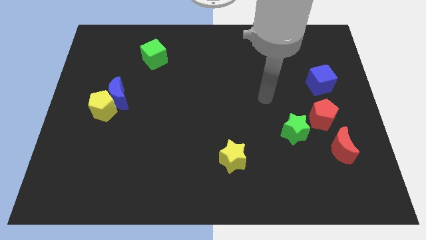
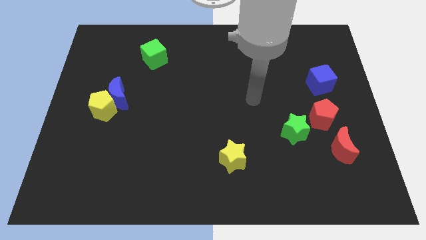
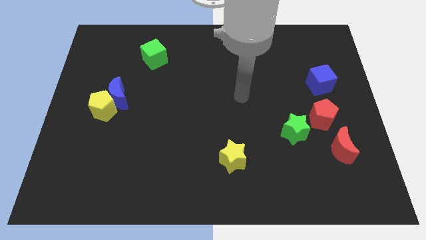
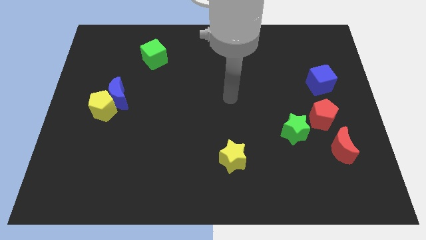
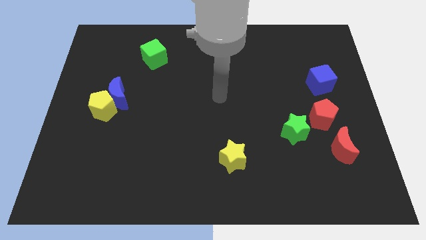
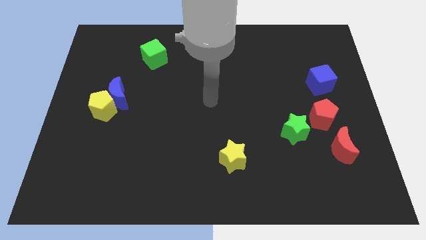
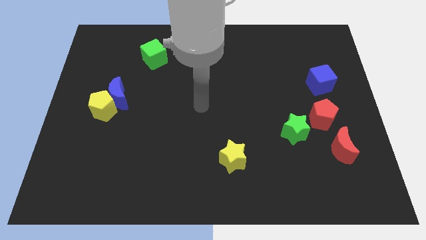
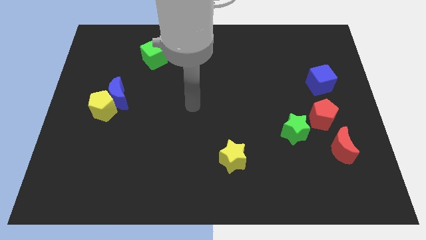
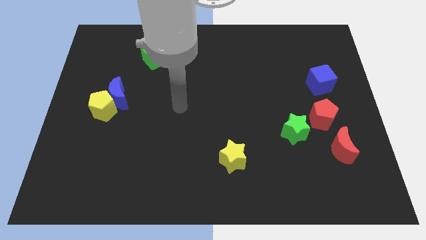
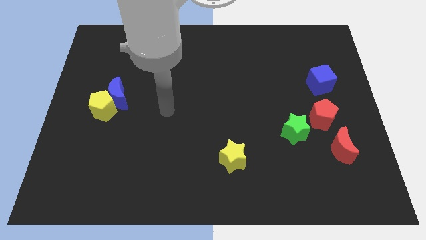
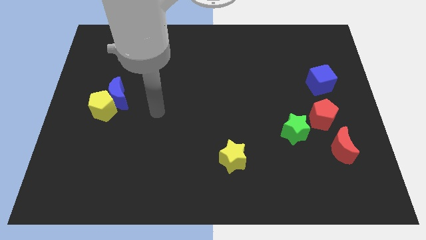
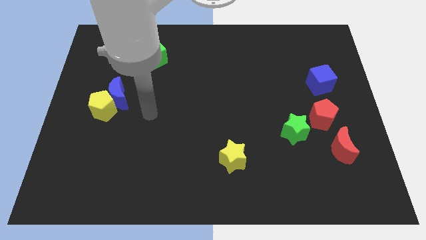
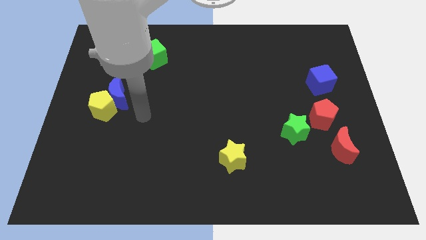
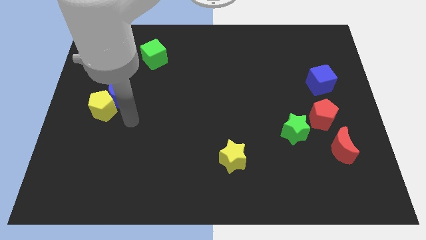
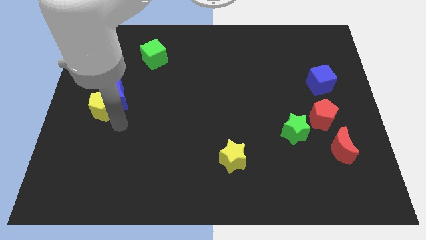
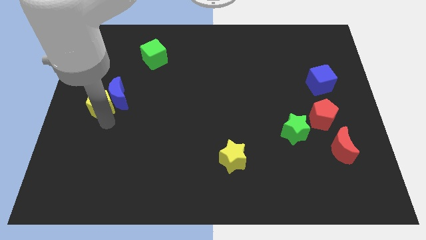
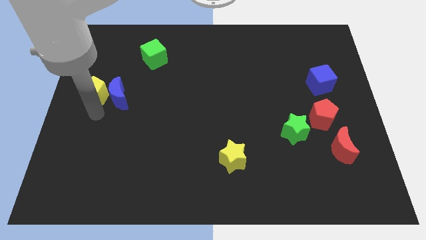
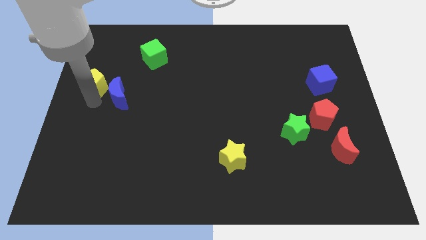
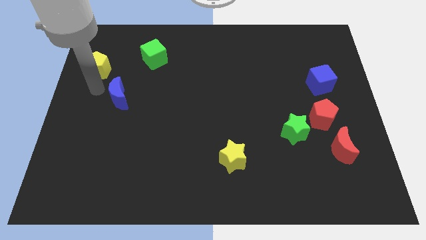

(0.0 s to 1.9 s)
separate the blue moon from the yellow pentagon

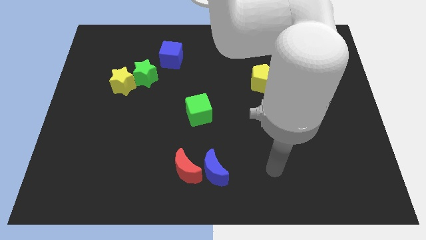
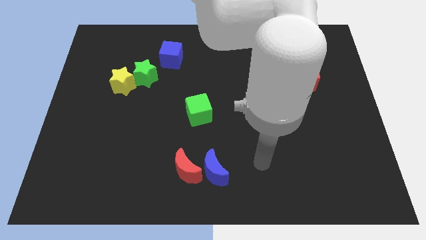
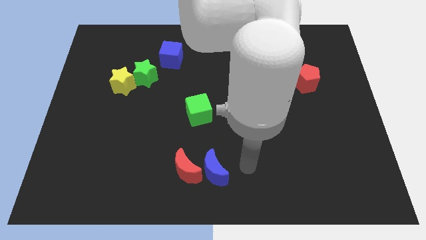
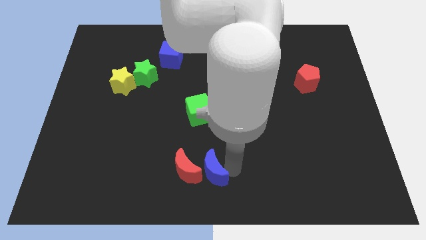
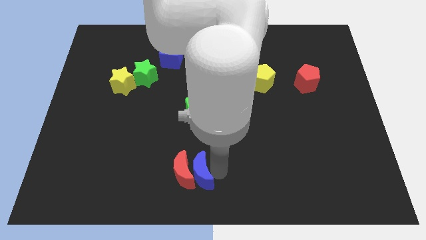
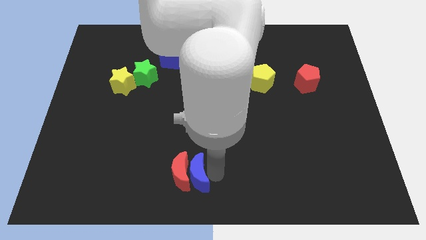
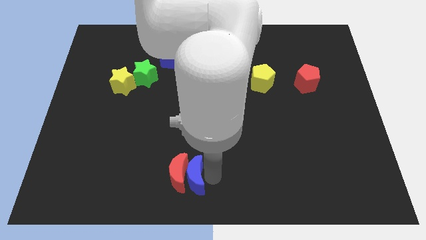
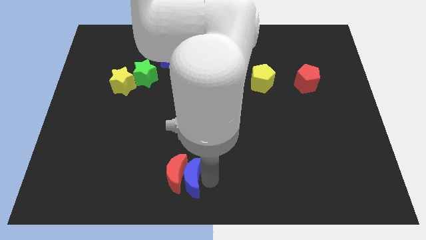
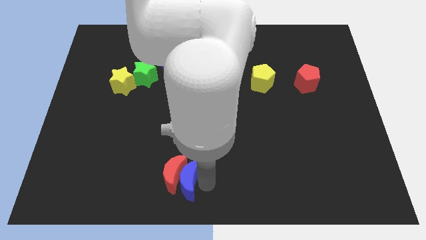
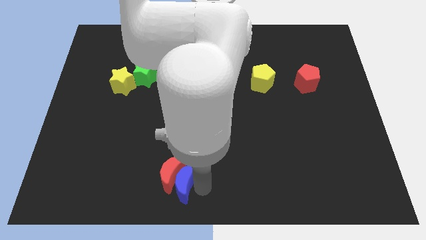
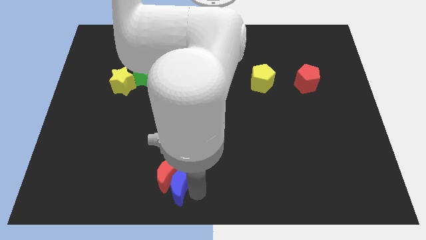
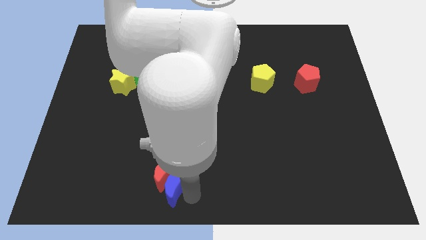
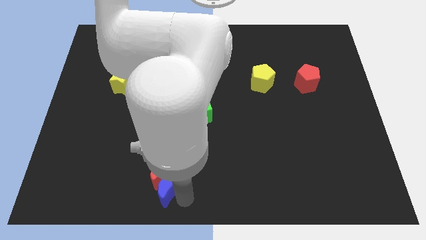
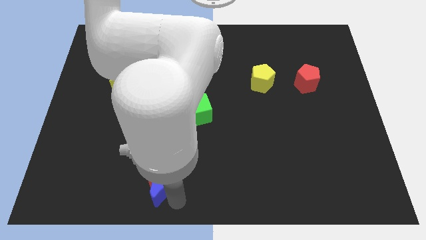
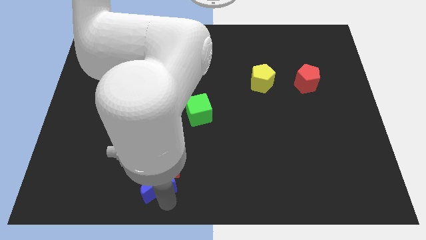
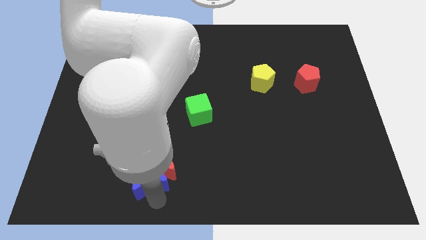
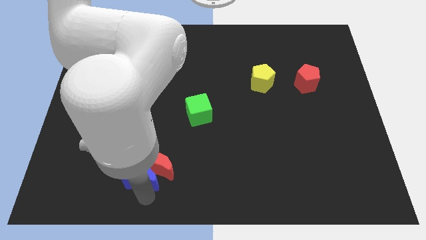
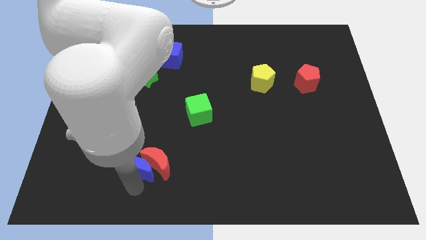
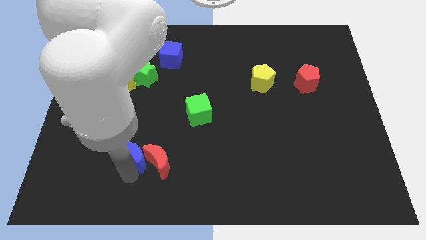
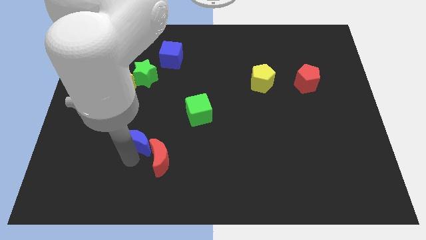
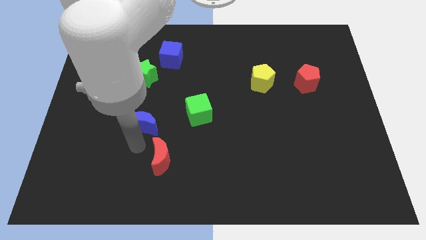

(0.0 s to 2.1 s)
move the red moon away from the blue moon

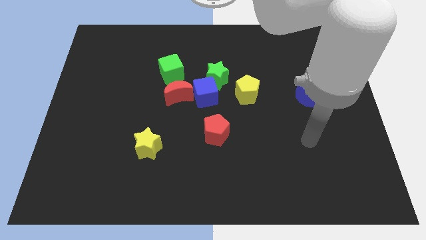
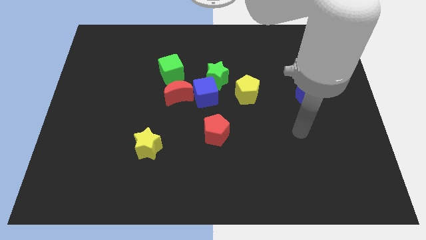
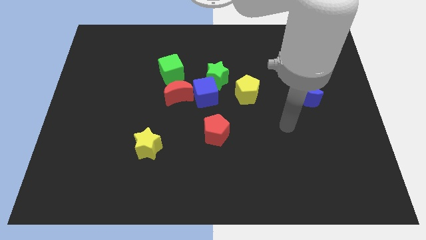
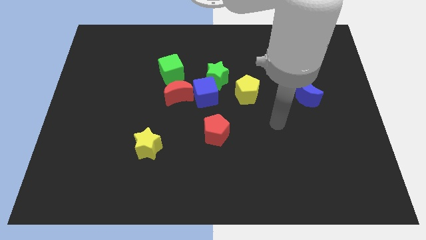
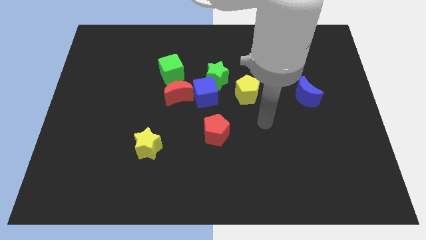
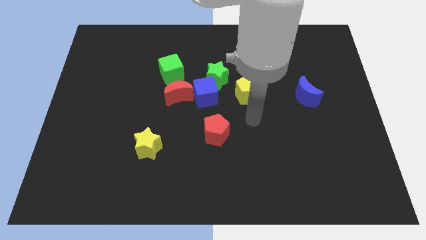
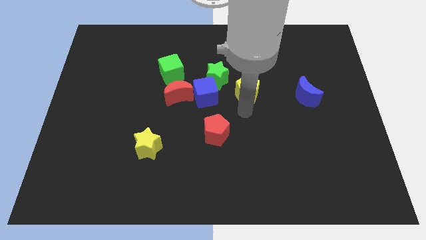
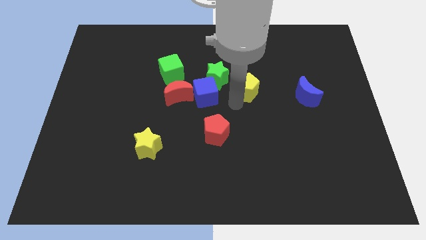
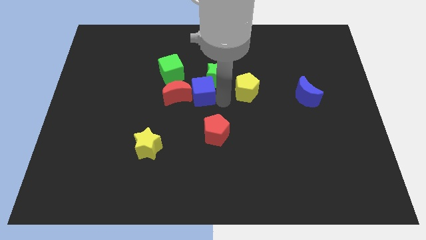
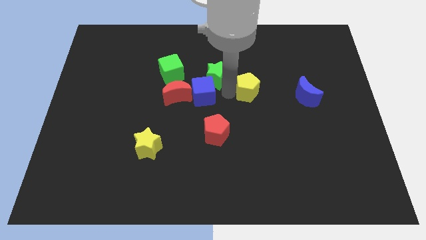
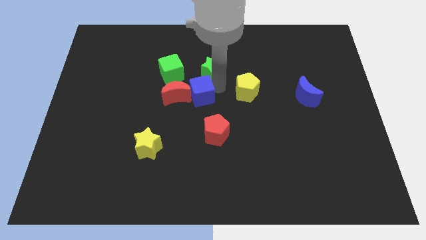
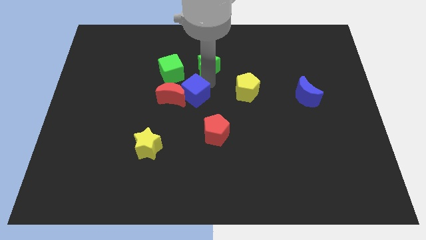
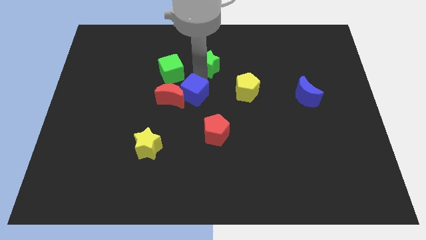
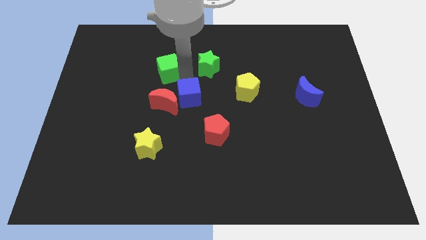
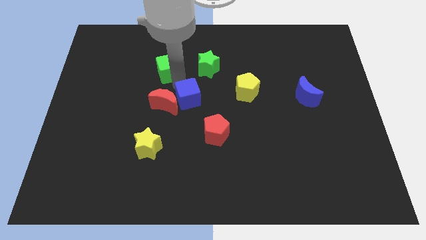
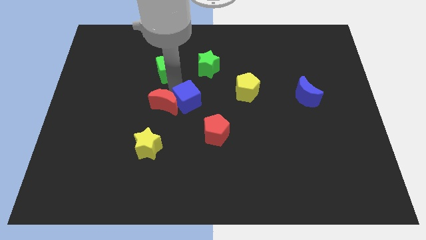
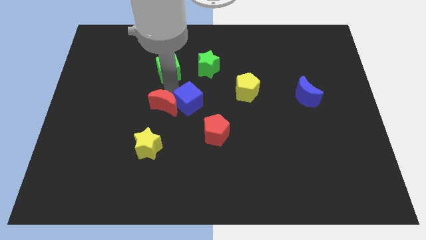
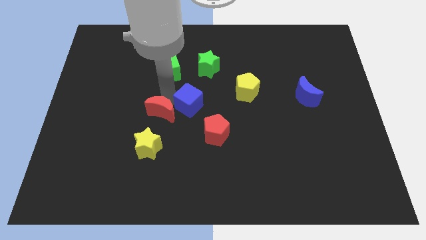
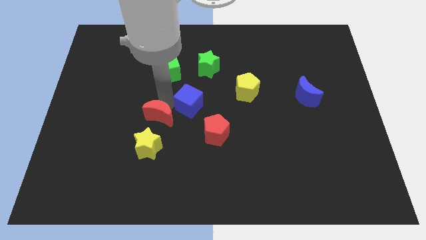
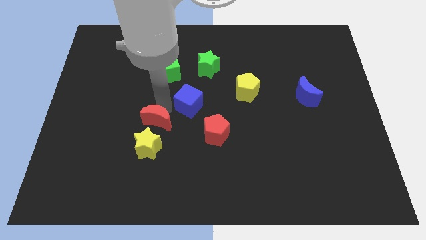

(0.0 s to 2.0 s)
move the red moon away from the blue cube and green cube

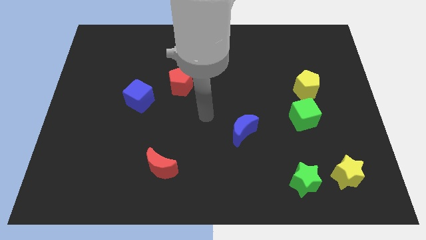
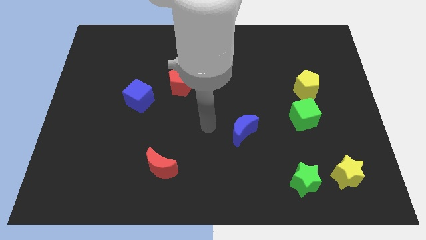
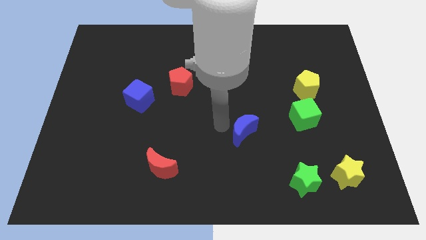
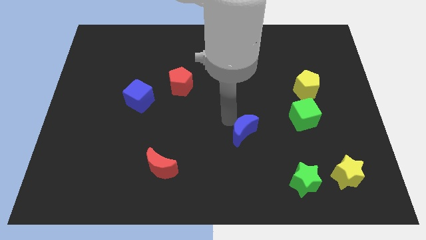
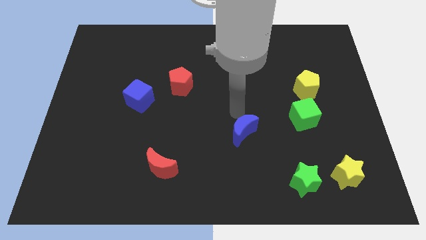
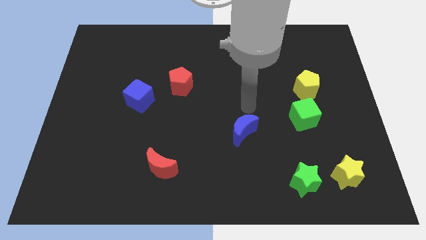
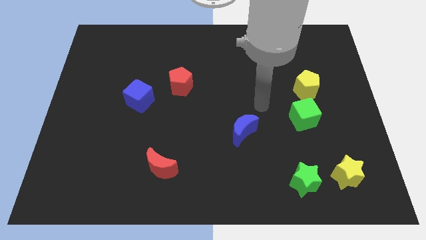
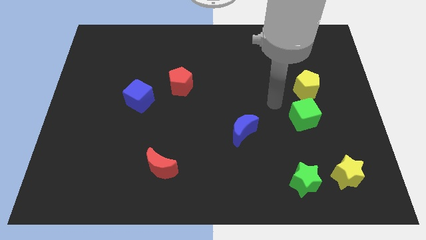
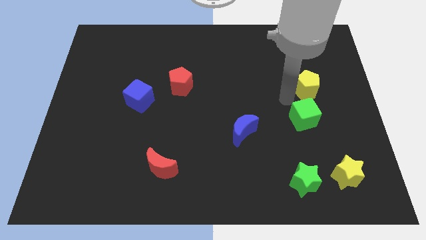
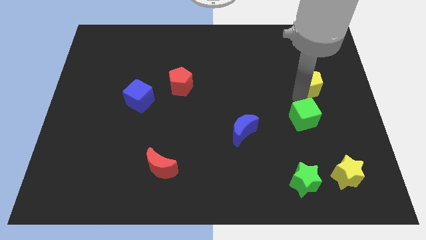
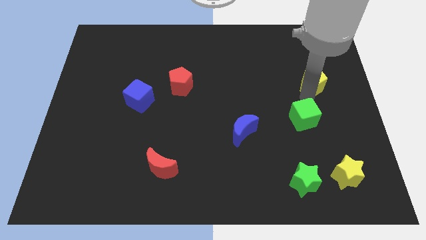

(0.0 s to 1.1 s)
move the green cube away from the yellow pentagon

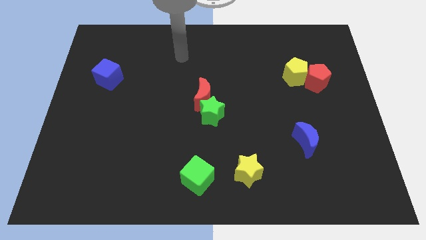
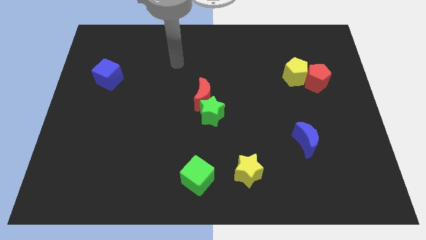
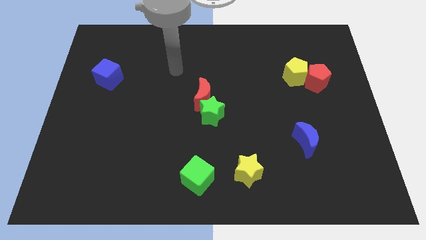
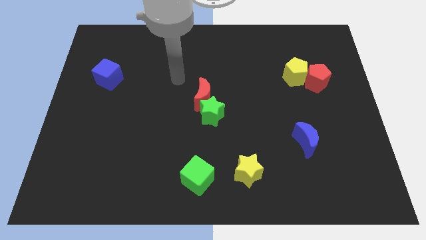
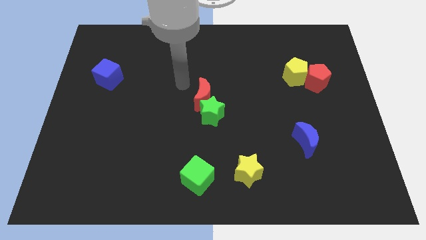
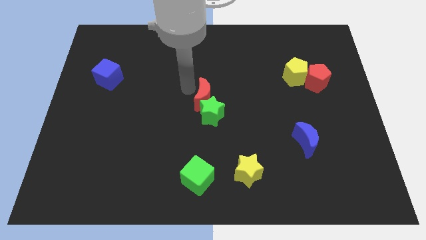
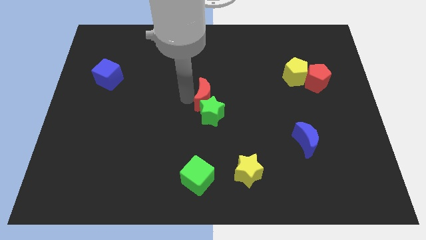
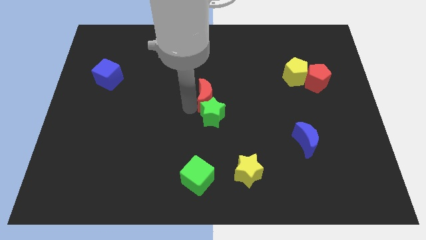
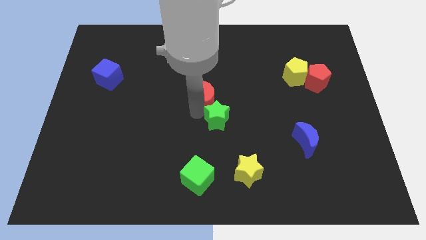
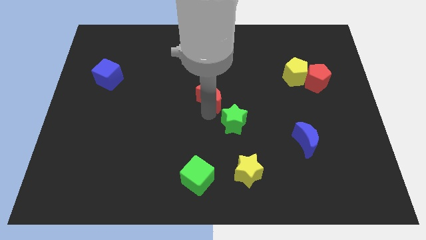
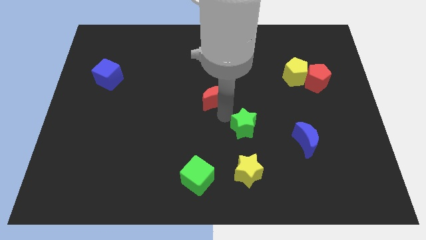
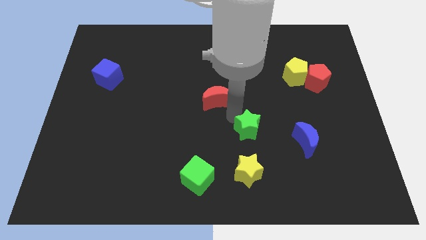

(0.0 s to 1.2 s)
separate the red moon from the green star

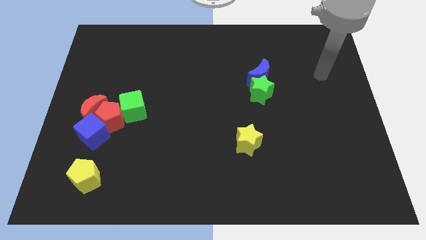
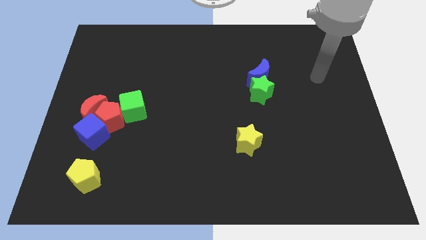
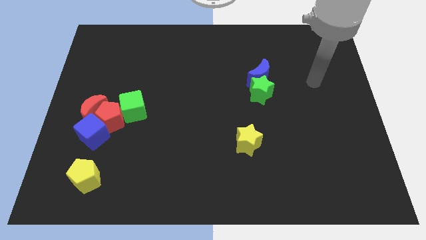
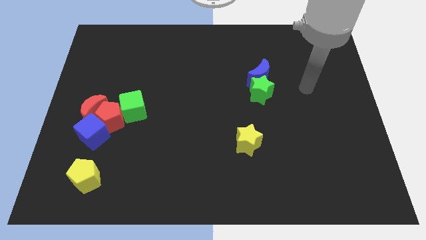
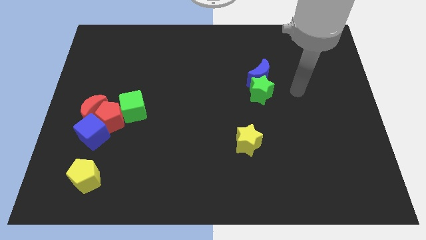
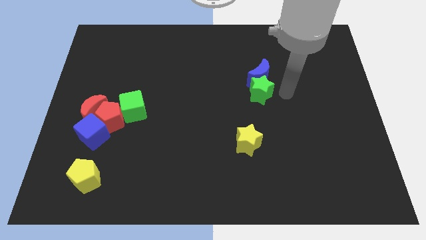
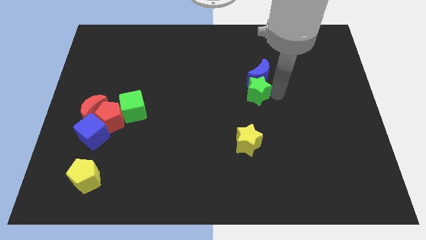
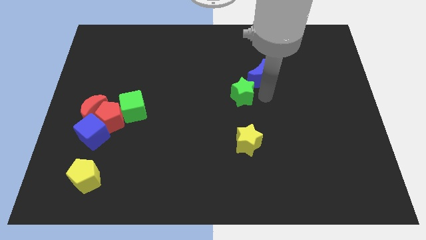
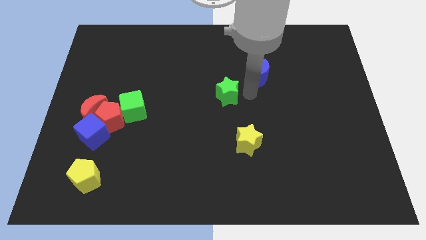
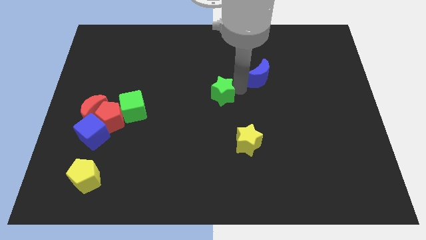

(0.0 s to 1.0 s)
separate the blue moon from the green star
